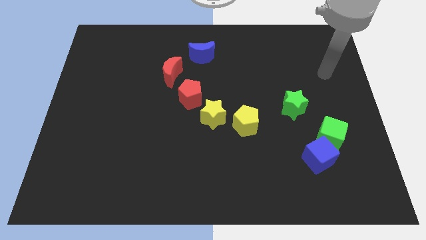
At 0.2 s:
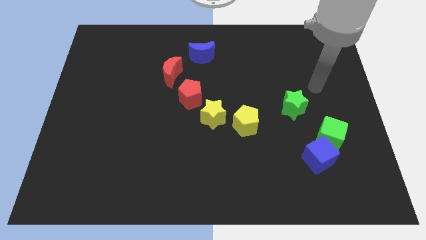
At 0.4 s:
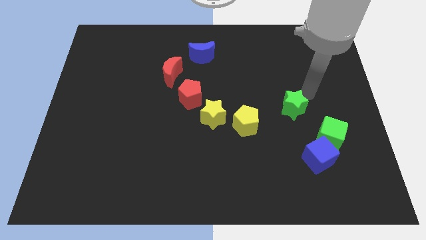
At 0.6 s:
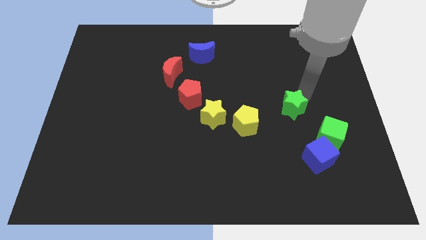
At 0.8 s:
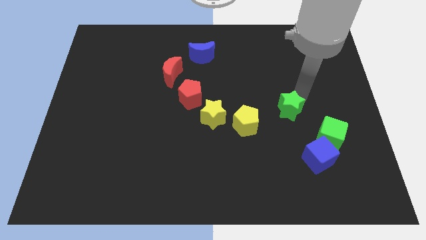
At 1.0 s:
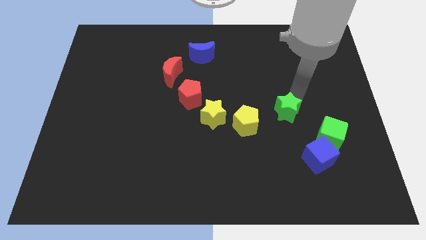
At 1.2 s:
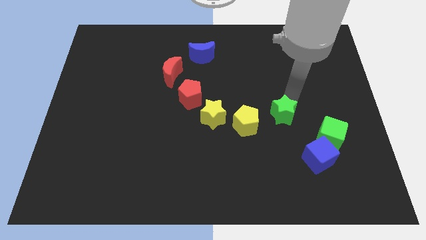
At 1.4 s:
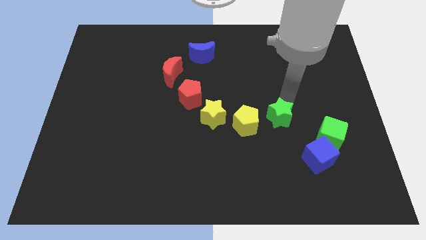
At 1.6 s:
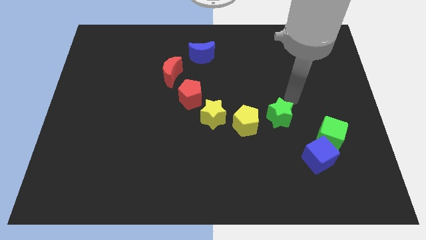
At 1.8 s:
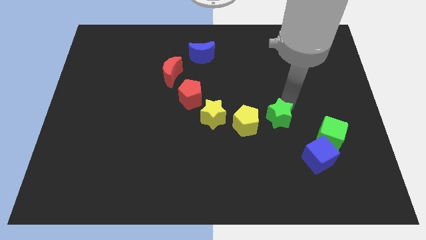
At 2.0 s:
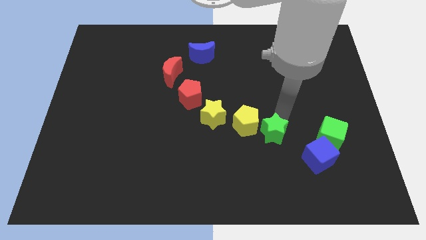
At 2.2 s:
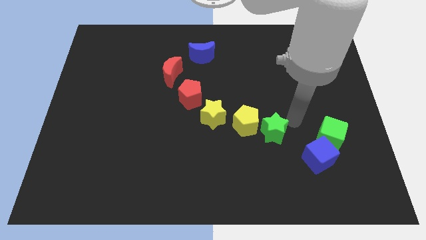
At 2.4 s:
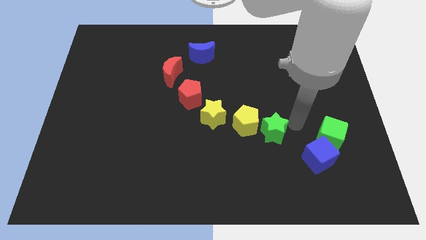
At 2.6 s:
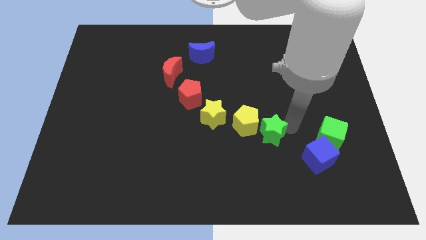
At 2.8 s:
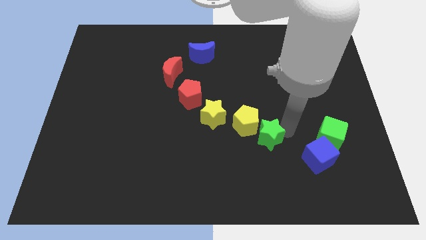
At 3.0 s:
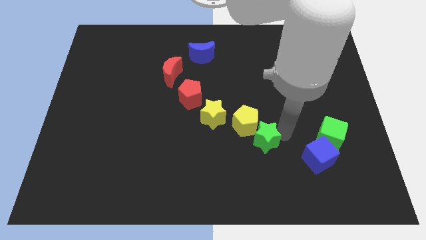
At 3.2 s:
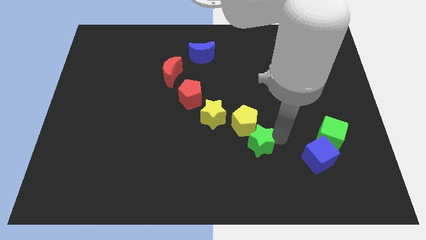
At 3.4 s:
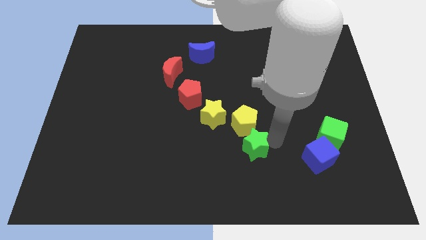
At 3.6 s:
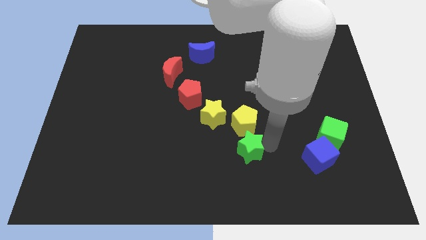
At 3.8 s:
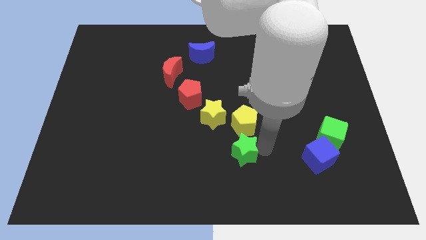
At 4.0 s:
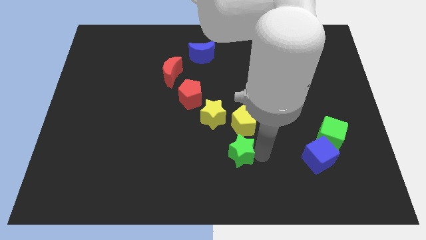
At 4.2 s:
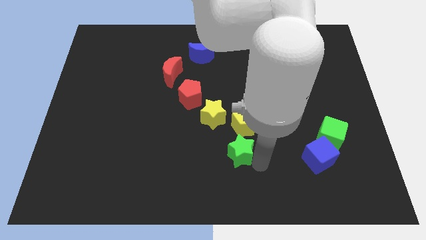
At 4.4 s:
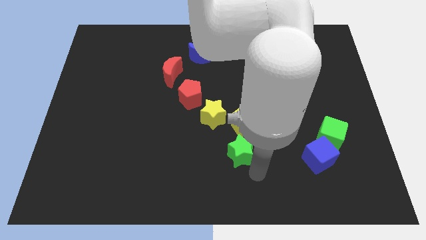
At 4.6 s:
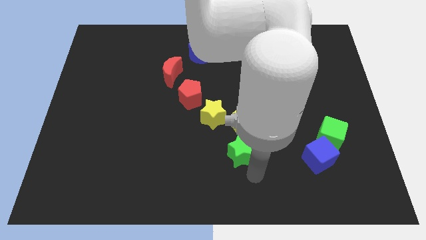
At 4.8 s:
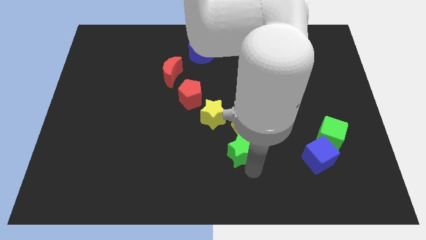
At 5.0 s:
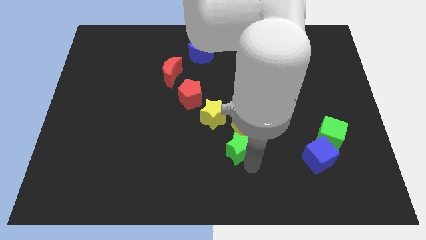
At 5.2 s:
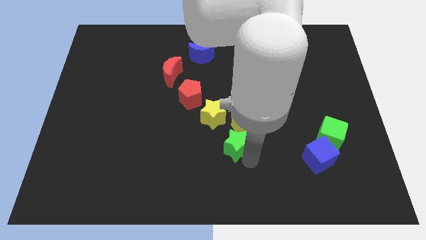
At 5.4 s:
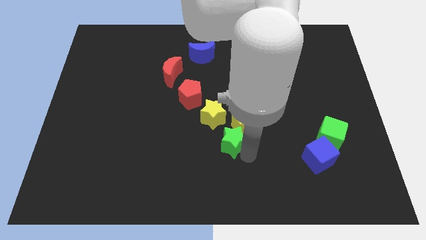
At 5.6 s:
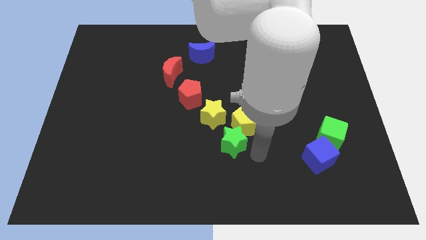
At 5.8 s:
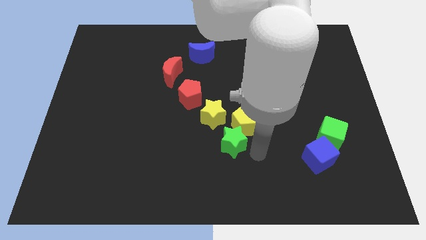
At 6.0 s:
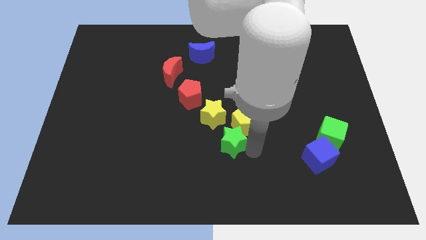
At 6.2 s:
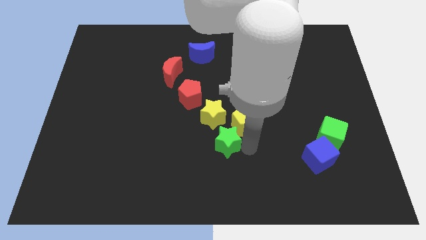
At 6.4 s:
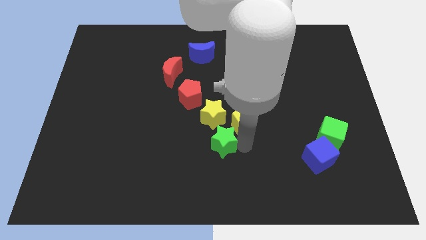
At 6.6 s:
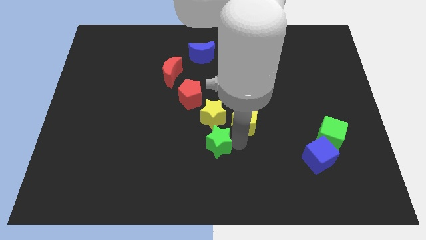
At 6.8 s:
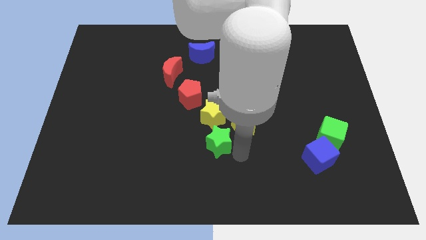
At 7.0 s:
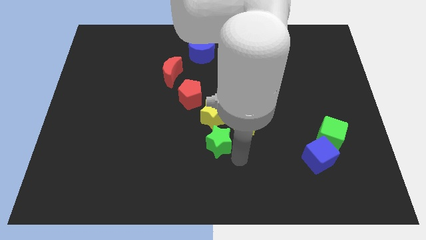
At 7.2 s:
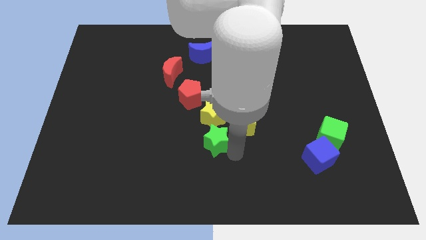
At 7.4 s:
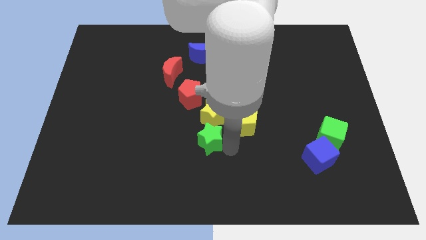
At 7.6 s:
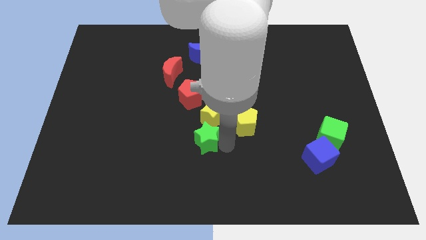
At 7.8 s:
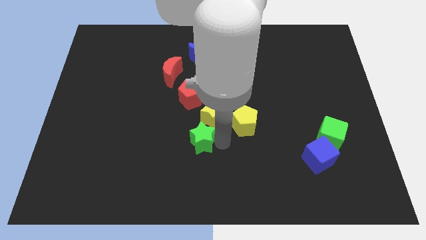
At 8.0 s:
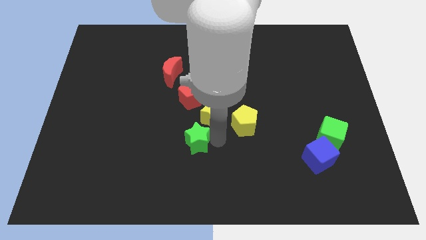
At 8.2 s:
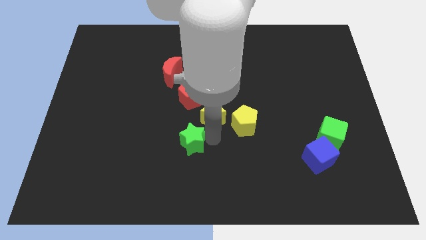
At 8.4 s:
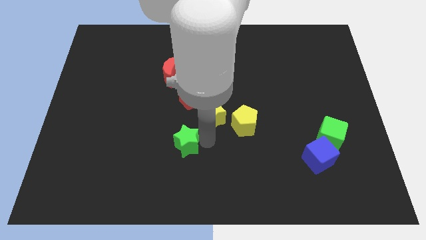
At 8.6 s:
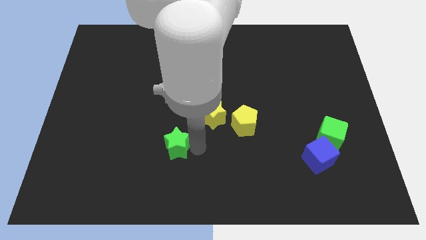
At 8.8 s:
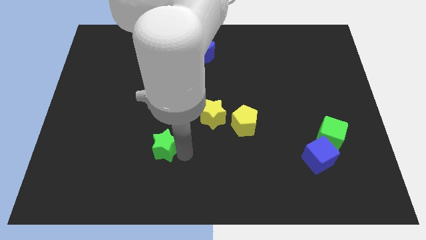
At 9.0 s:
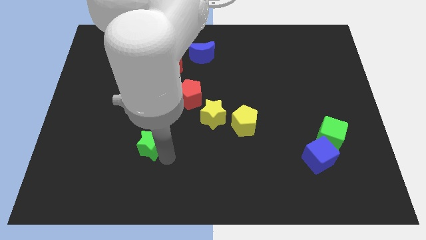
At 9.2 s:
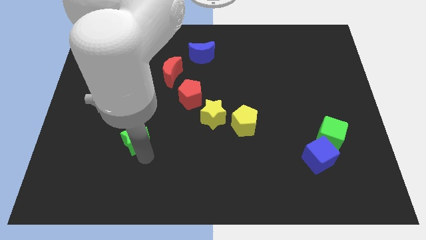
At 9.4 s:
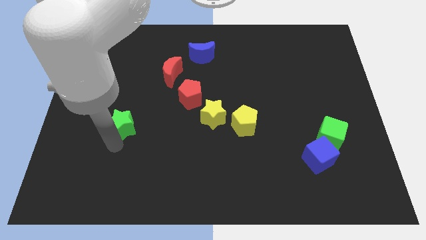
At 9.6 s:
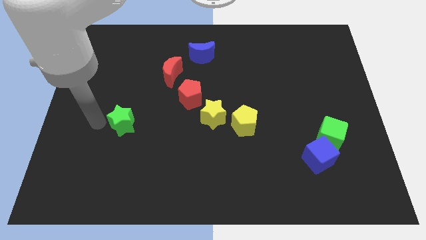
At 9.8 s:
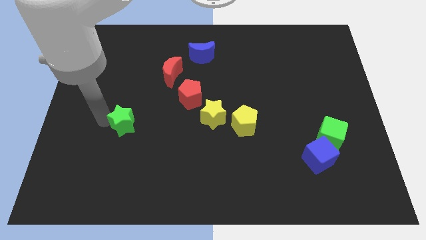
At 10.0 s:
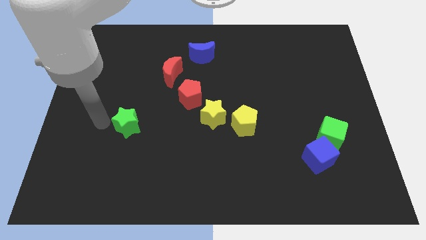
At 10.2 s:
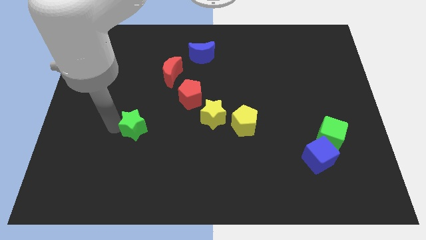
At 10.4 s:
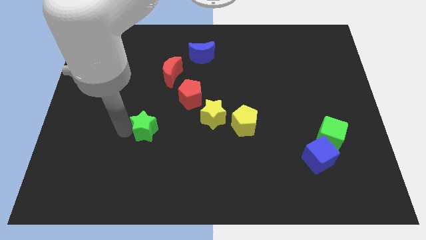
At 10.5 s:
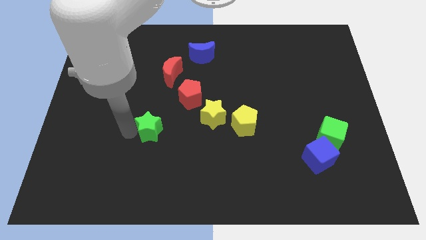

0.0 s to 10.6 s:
push the green star diagonally down and to the left of the red pentagon

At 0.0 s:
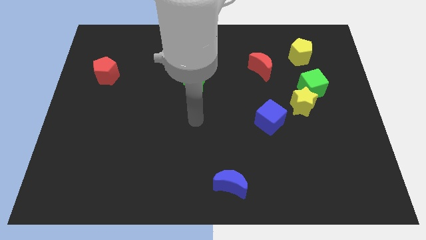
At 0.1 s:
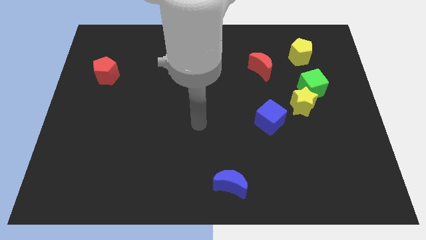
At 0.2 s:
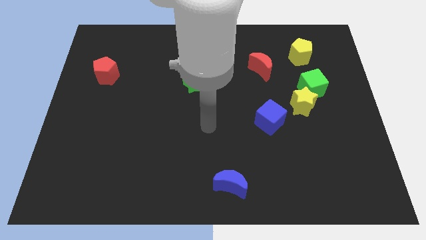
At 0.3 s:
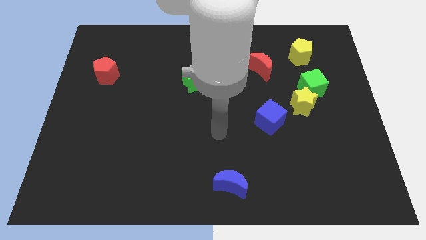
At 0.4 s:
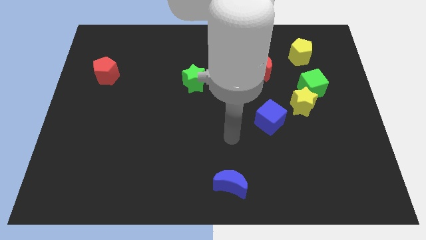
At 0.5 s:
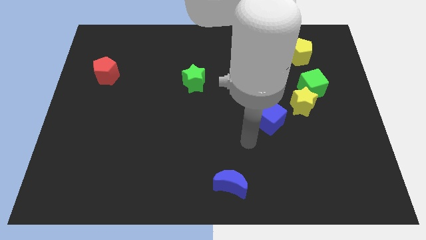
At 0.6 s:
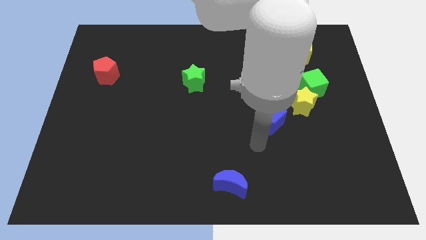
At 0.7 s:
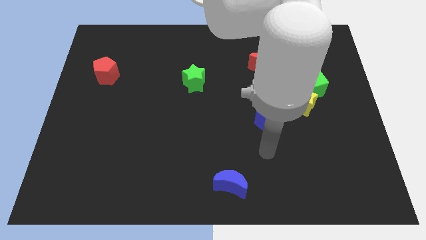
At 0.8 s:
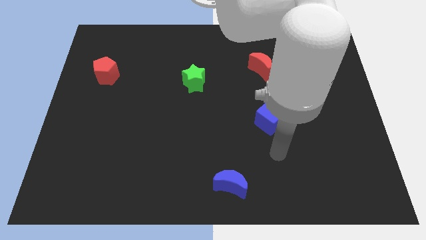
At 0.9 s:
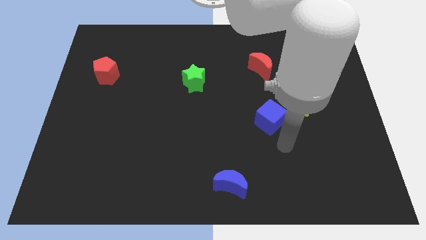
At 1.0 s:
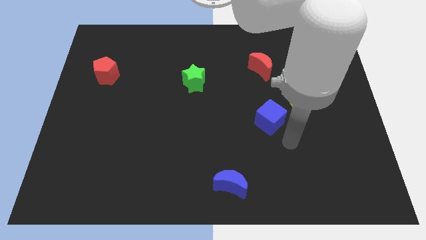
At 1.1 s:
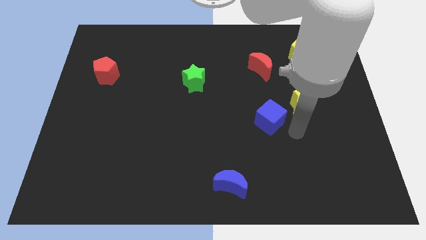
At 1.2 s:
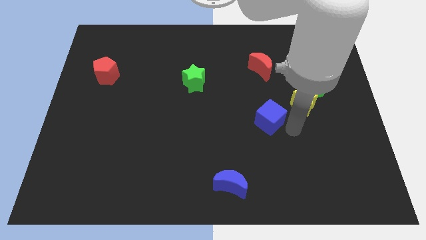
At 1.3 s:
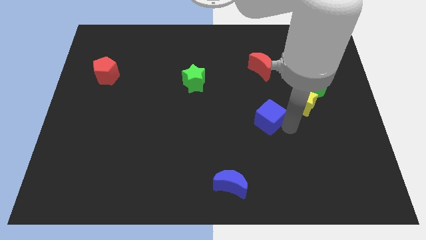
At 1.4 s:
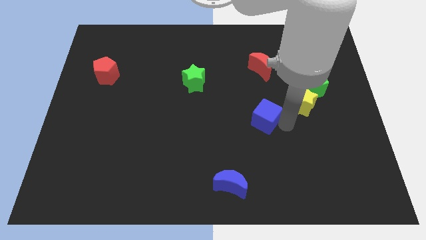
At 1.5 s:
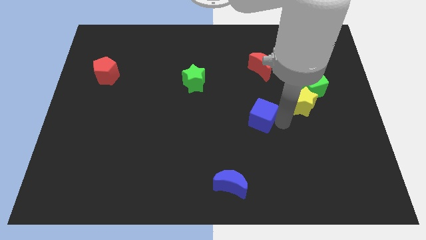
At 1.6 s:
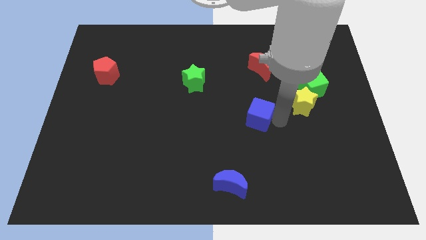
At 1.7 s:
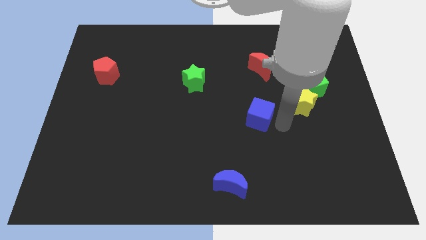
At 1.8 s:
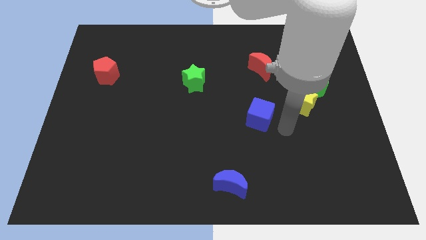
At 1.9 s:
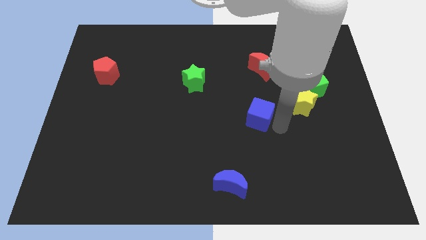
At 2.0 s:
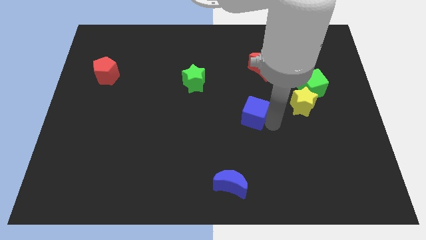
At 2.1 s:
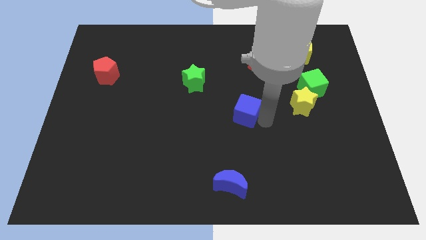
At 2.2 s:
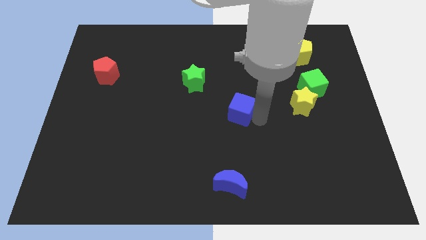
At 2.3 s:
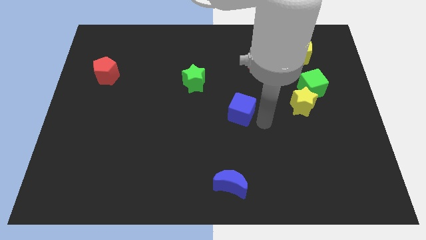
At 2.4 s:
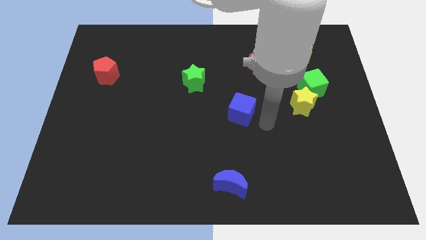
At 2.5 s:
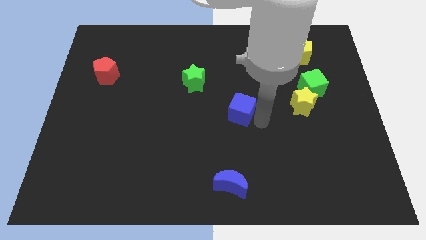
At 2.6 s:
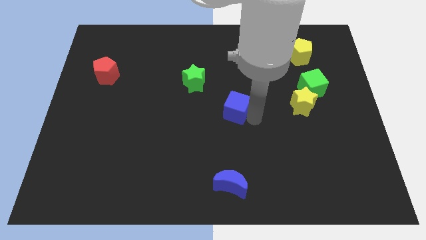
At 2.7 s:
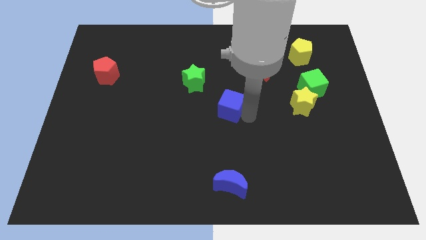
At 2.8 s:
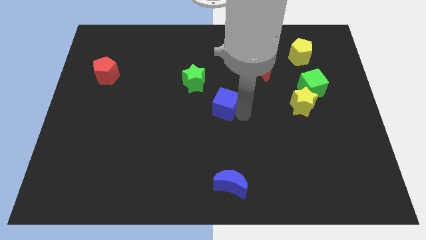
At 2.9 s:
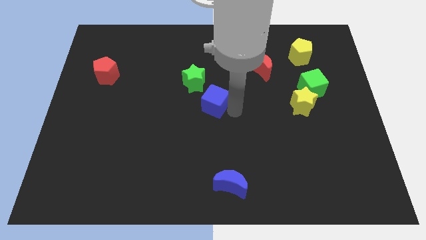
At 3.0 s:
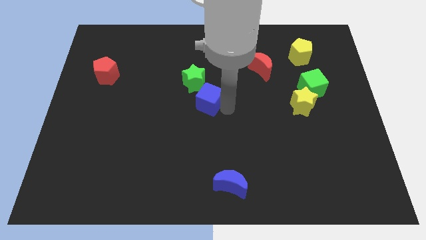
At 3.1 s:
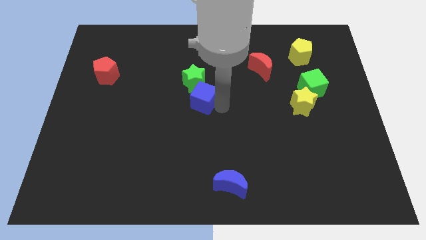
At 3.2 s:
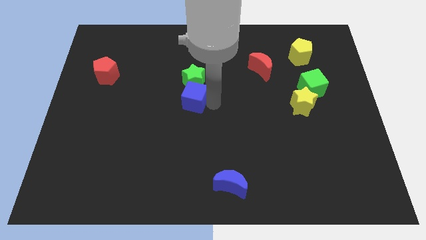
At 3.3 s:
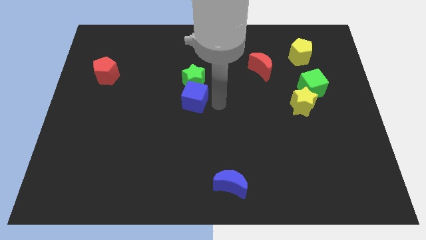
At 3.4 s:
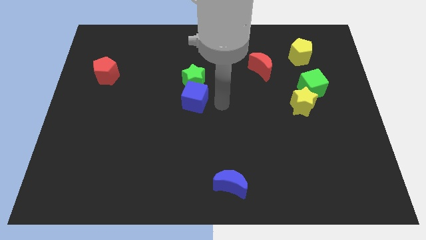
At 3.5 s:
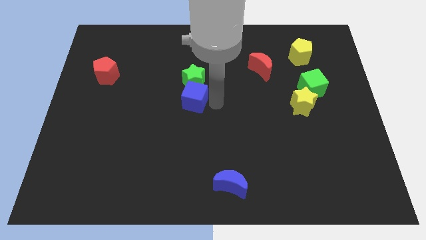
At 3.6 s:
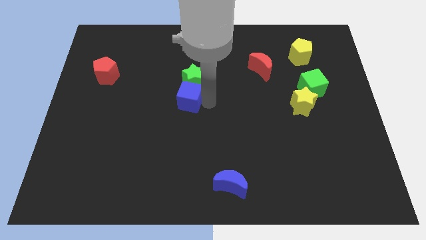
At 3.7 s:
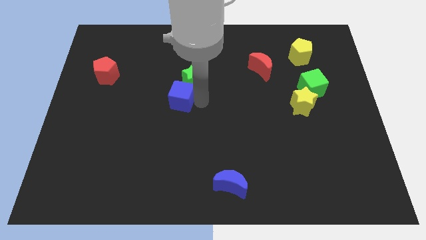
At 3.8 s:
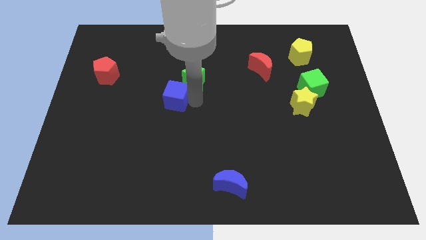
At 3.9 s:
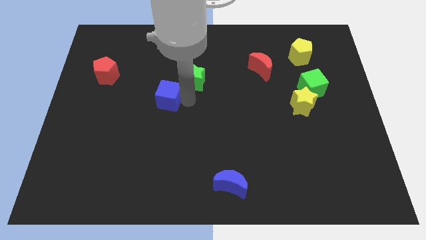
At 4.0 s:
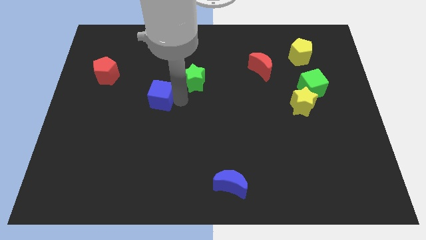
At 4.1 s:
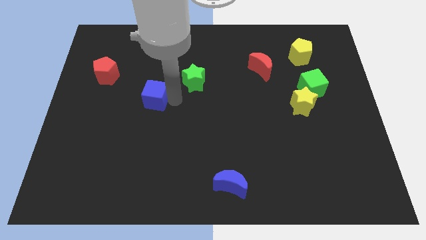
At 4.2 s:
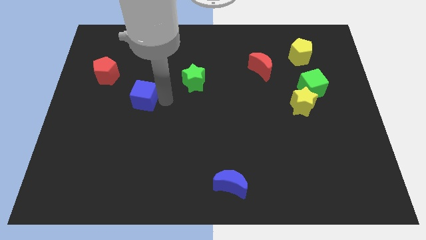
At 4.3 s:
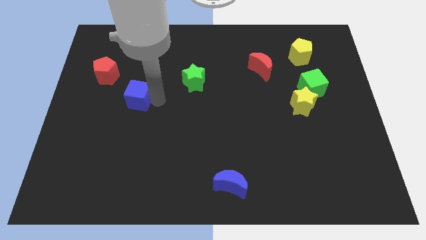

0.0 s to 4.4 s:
put the blue cube to the bottom right of the red pentagon
